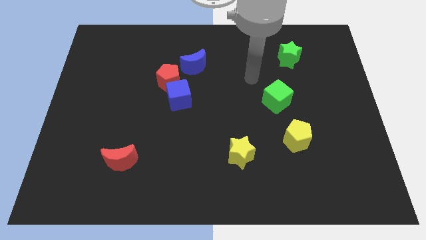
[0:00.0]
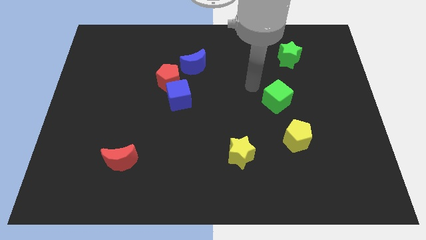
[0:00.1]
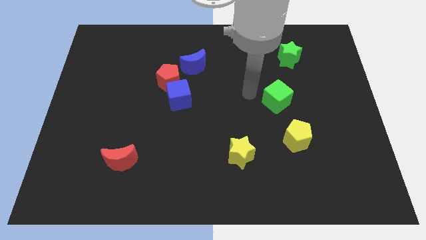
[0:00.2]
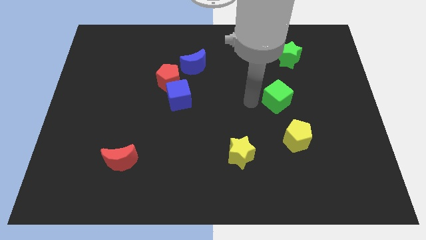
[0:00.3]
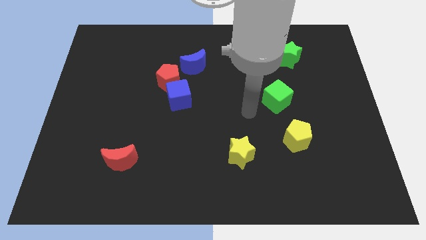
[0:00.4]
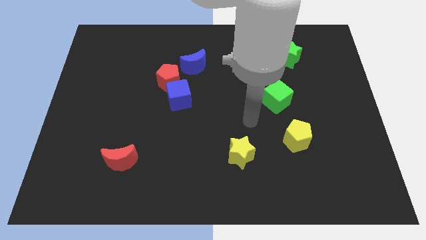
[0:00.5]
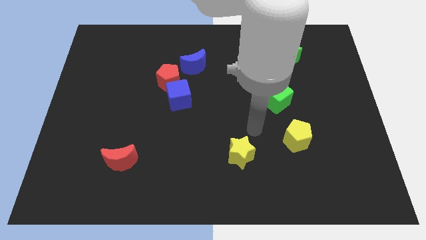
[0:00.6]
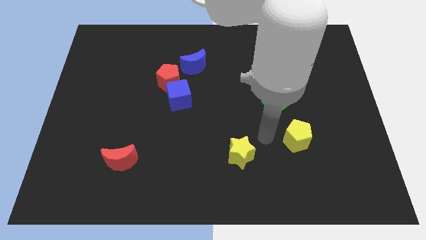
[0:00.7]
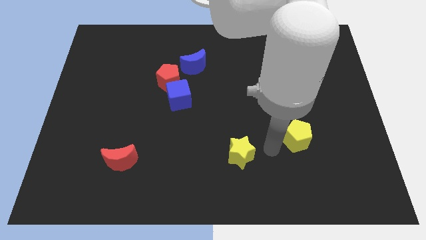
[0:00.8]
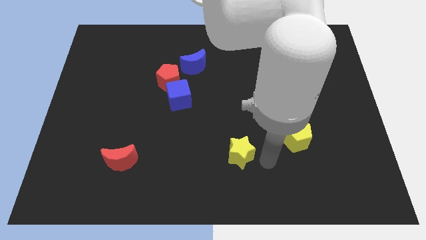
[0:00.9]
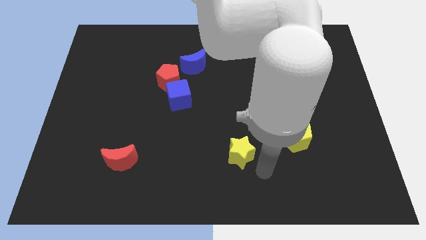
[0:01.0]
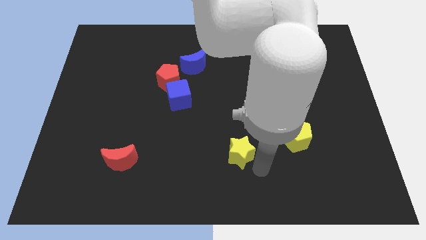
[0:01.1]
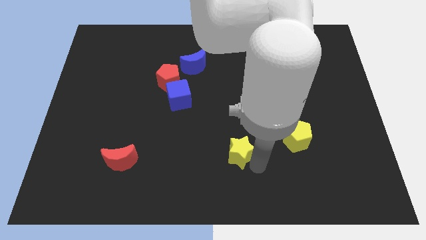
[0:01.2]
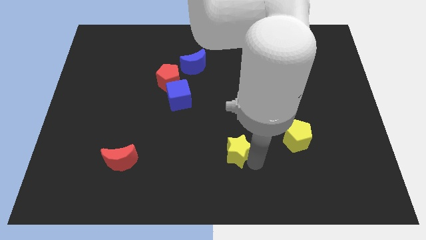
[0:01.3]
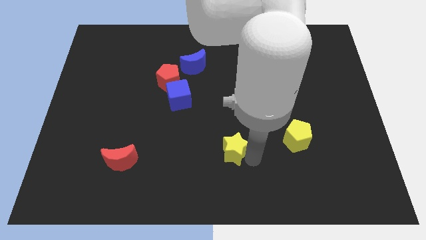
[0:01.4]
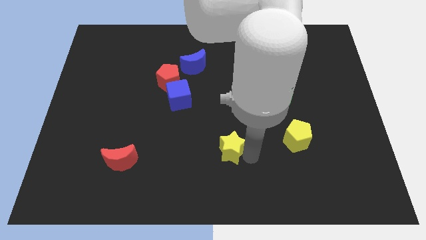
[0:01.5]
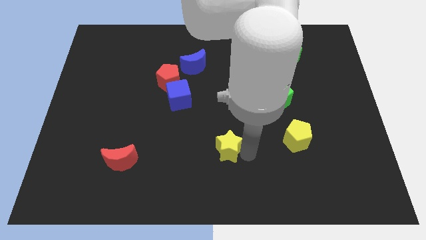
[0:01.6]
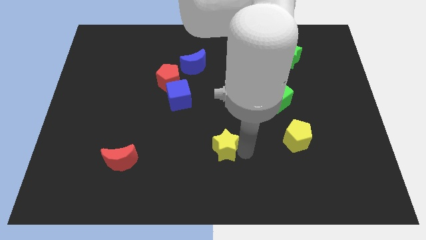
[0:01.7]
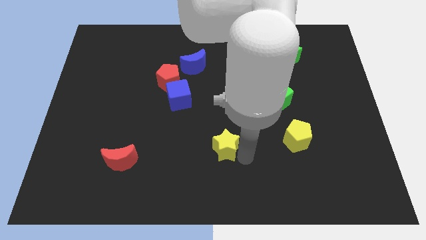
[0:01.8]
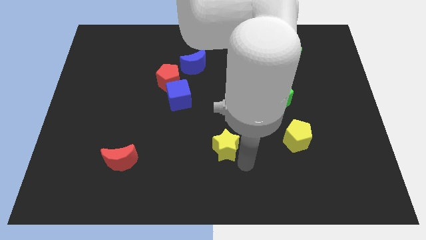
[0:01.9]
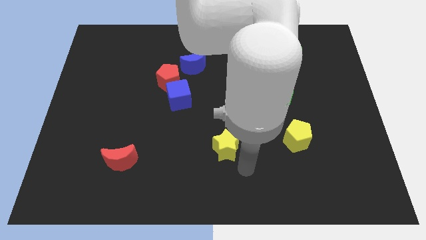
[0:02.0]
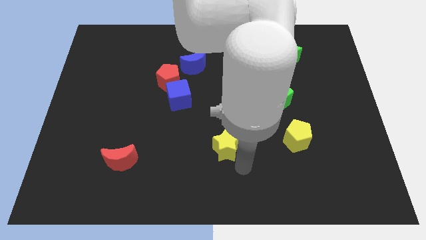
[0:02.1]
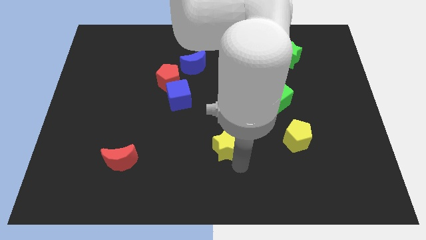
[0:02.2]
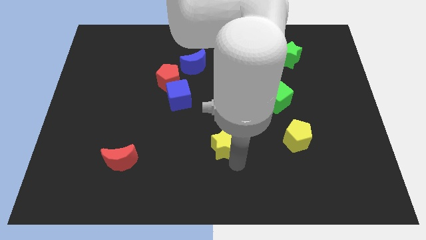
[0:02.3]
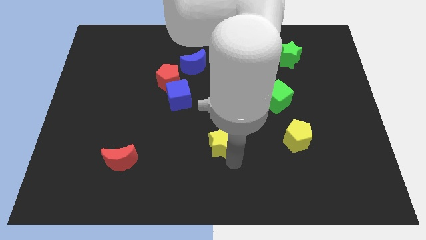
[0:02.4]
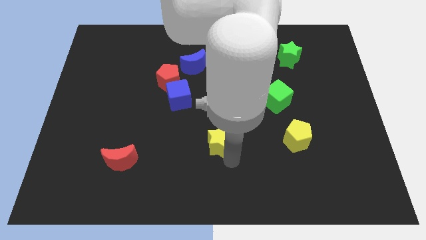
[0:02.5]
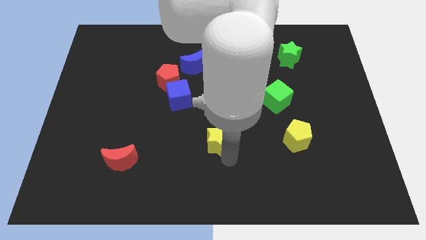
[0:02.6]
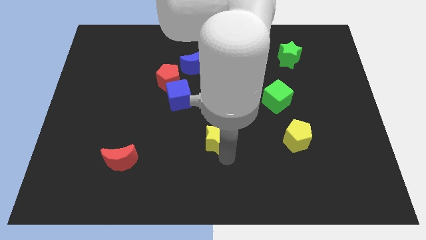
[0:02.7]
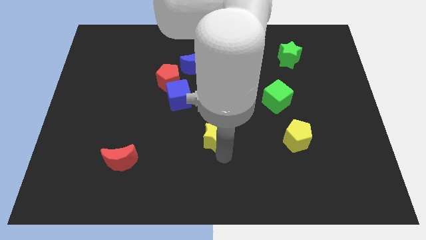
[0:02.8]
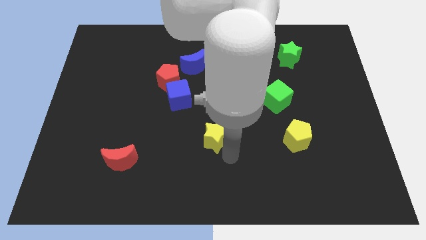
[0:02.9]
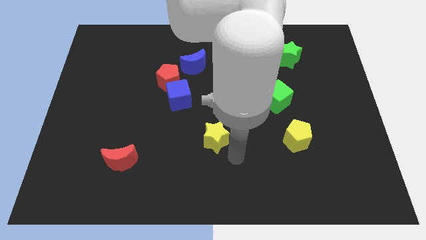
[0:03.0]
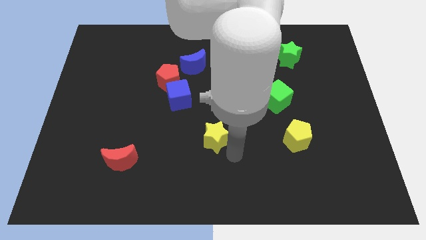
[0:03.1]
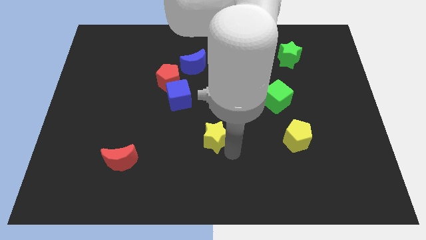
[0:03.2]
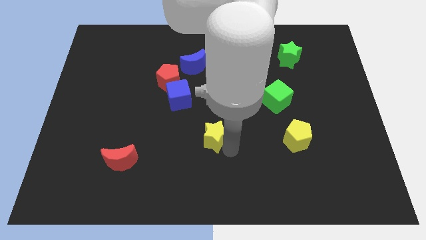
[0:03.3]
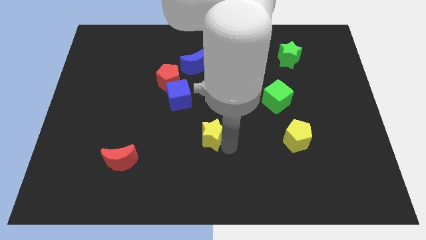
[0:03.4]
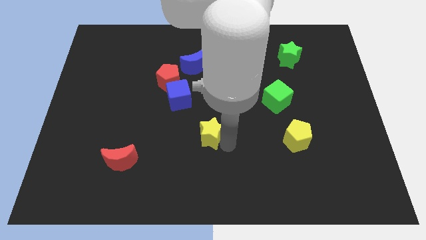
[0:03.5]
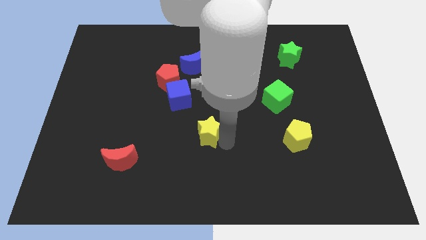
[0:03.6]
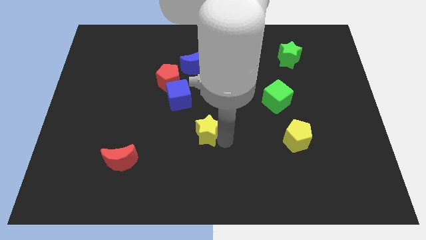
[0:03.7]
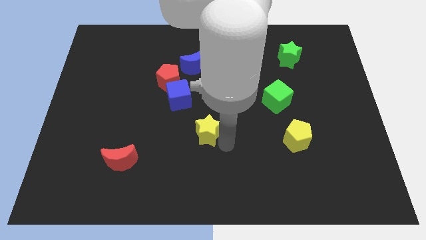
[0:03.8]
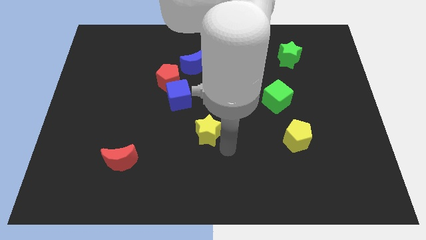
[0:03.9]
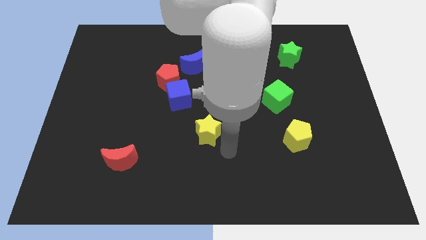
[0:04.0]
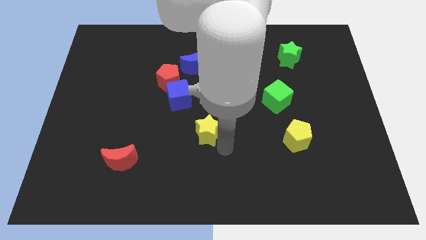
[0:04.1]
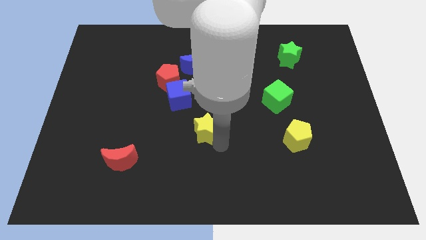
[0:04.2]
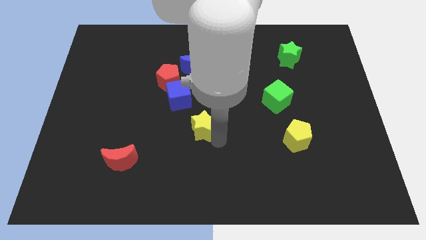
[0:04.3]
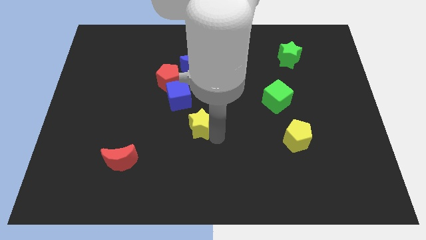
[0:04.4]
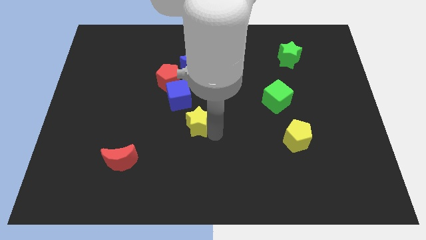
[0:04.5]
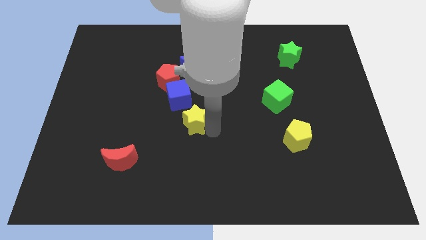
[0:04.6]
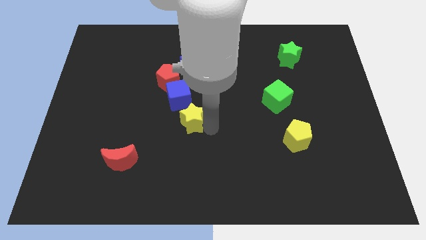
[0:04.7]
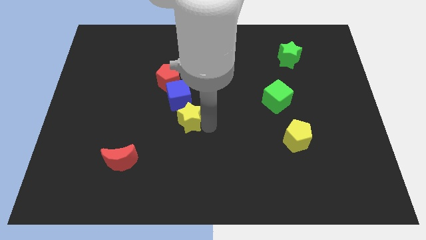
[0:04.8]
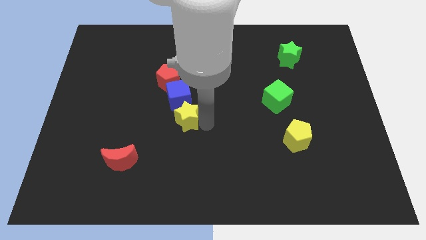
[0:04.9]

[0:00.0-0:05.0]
slide the yellow star below the red pentagon

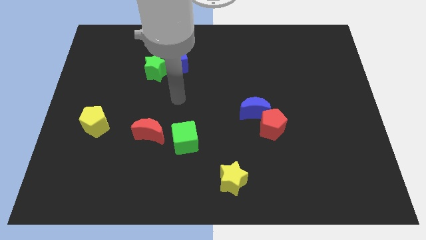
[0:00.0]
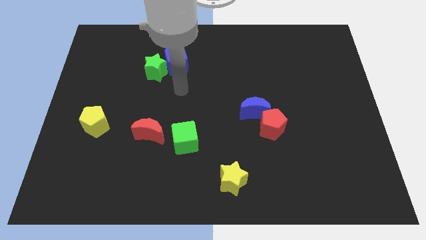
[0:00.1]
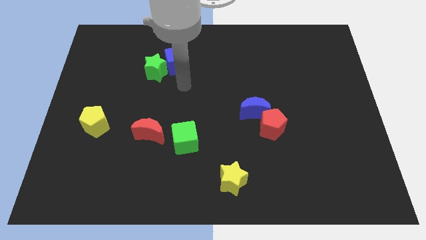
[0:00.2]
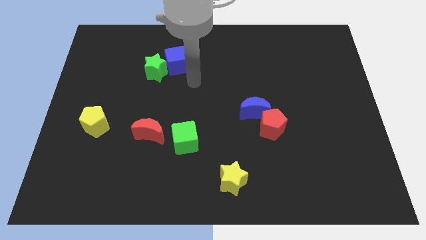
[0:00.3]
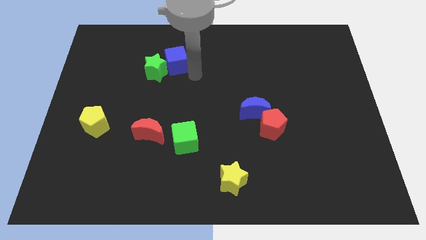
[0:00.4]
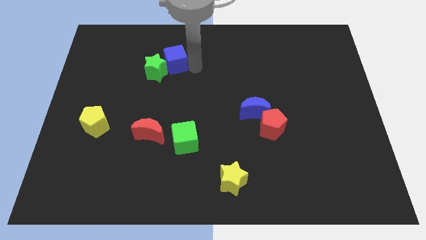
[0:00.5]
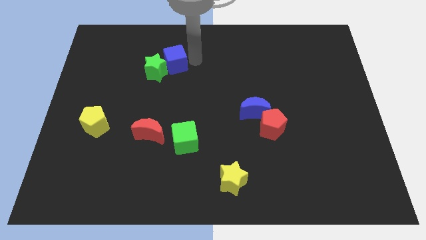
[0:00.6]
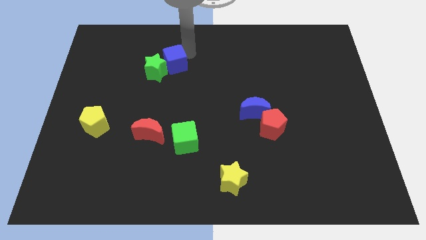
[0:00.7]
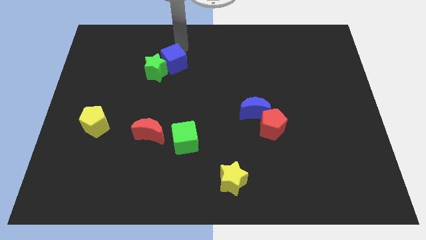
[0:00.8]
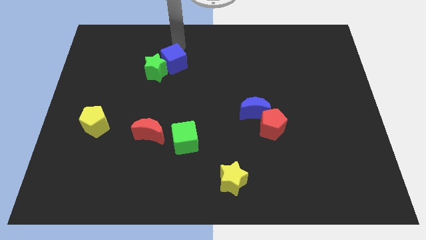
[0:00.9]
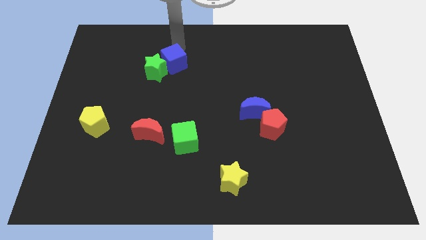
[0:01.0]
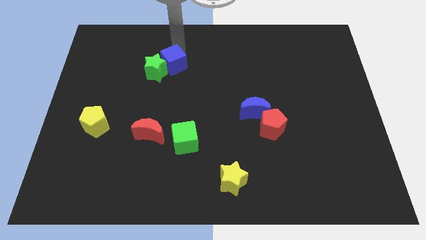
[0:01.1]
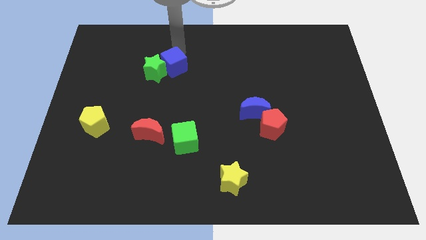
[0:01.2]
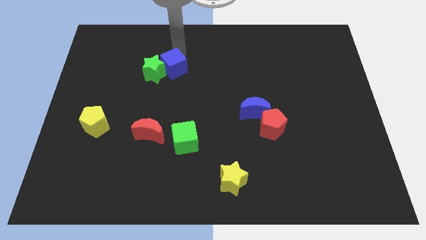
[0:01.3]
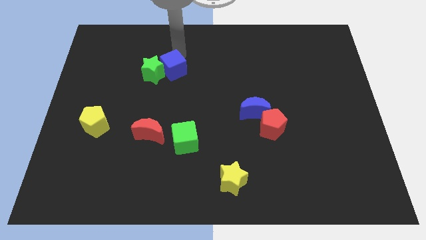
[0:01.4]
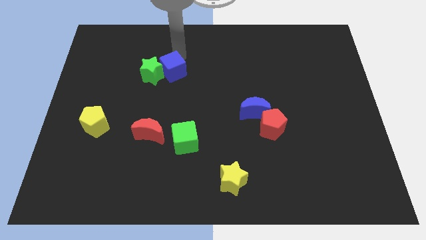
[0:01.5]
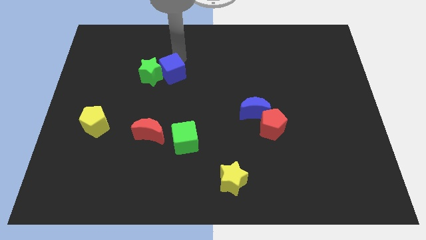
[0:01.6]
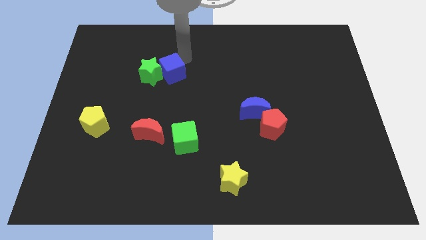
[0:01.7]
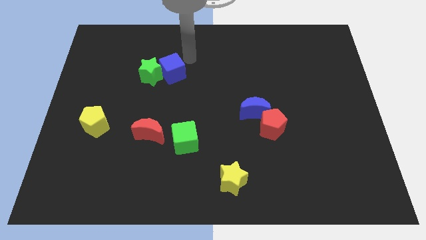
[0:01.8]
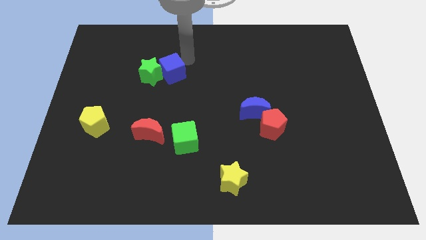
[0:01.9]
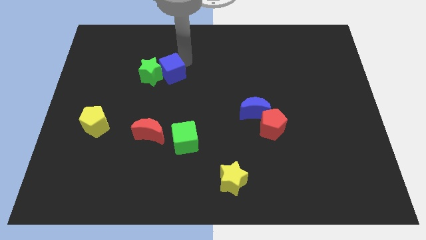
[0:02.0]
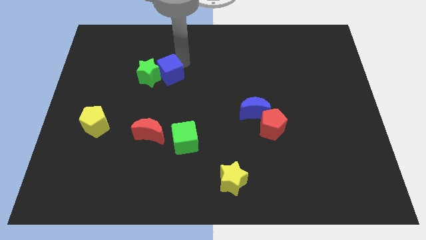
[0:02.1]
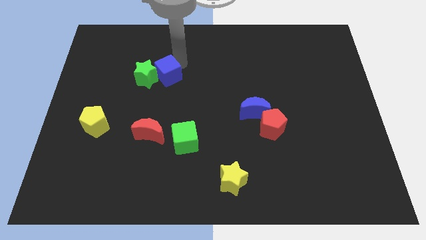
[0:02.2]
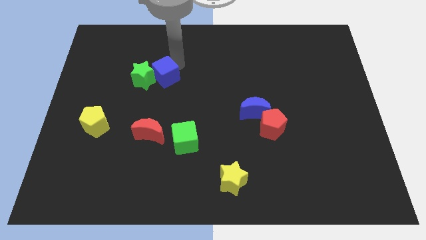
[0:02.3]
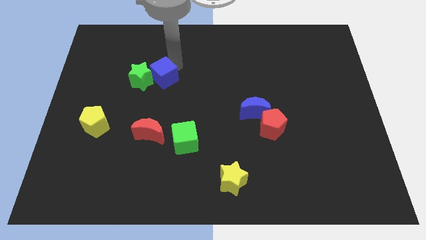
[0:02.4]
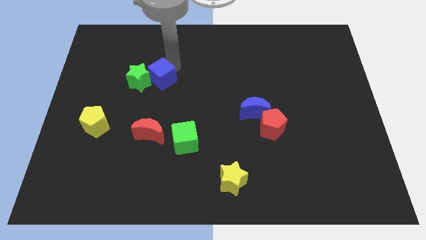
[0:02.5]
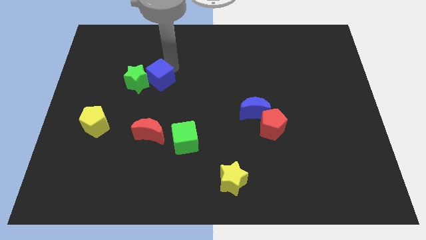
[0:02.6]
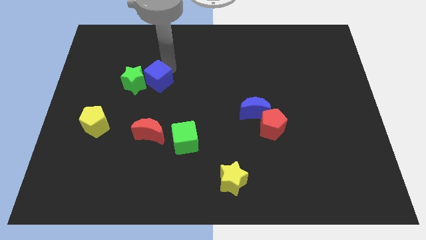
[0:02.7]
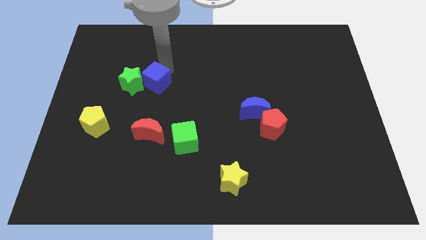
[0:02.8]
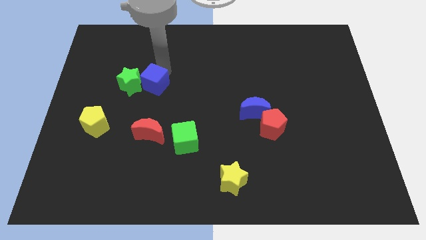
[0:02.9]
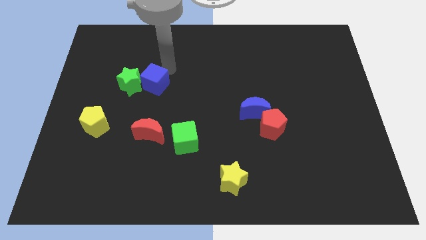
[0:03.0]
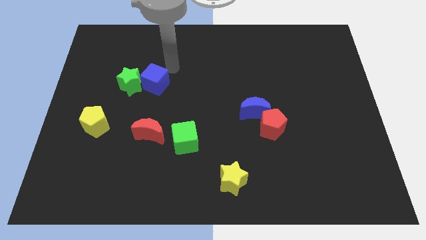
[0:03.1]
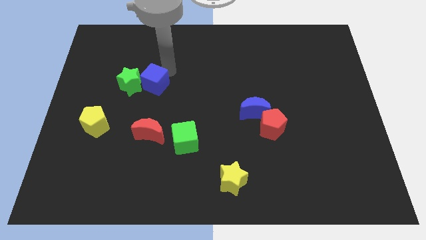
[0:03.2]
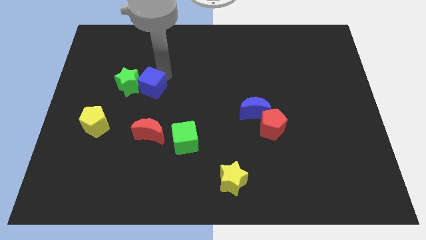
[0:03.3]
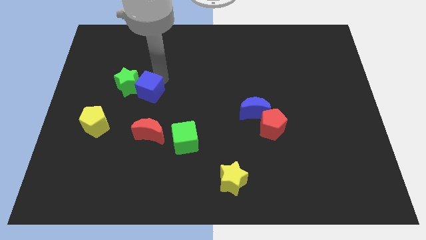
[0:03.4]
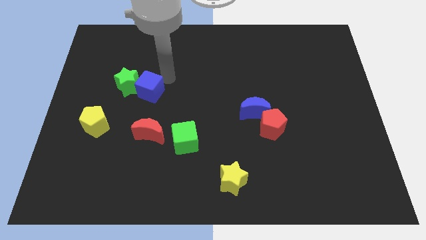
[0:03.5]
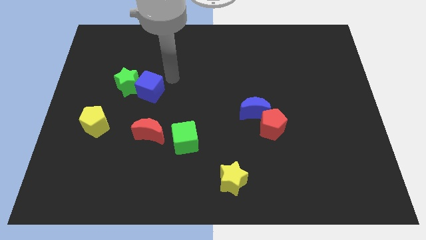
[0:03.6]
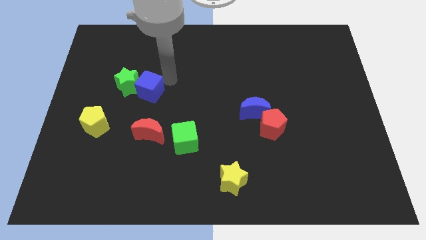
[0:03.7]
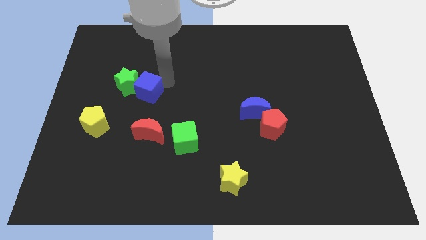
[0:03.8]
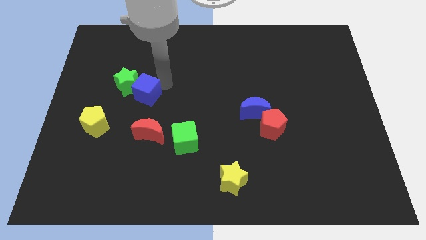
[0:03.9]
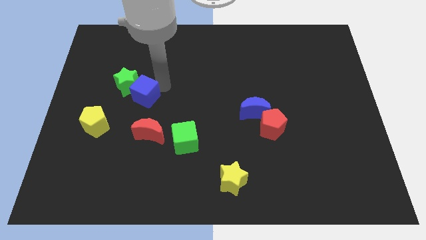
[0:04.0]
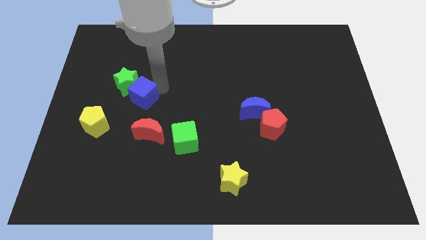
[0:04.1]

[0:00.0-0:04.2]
put the blue cube to the top right of the yellow pentagon
